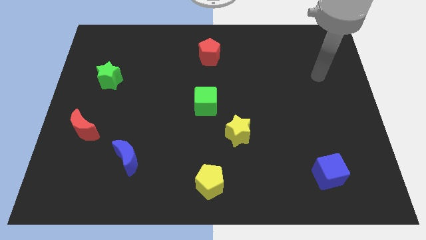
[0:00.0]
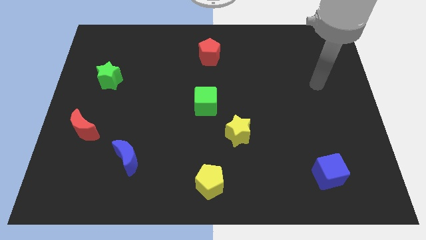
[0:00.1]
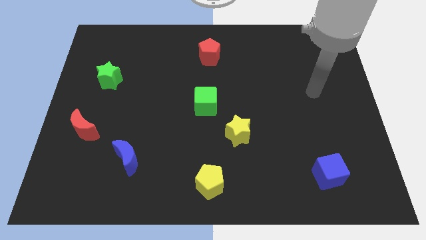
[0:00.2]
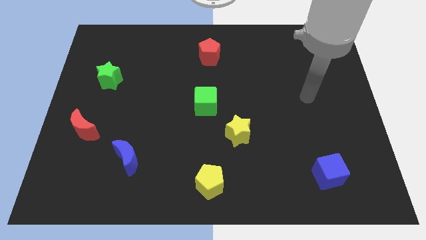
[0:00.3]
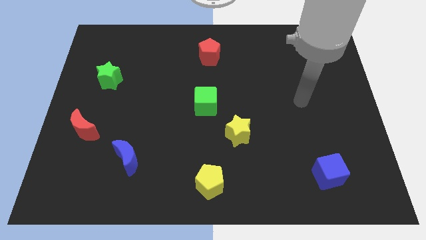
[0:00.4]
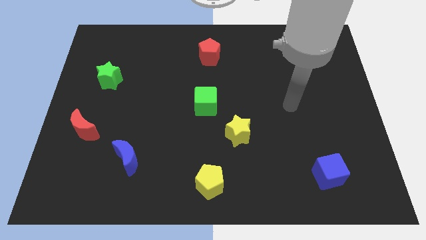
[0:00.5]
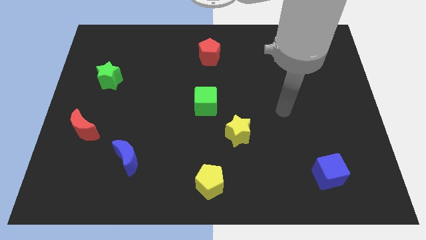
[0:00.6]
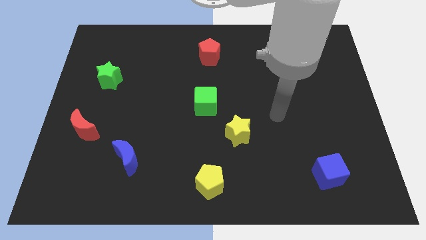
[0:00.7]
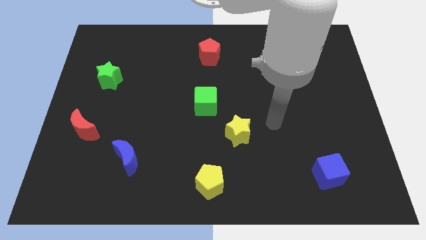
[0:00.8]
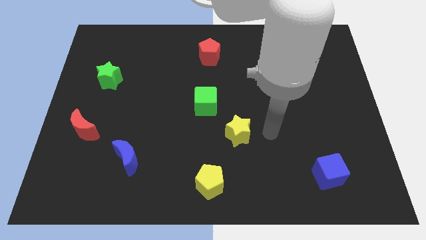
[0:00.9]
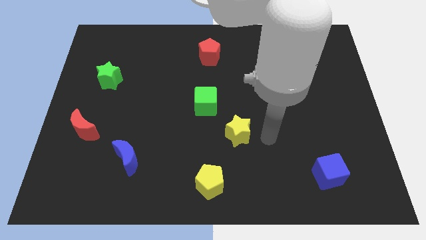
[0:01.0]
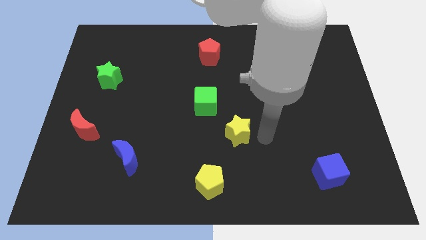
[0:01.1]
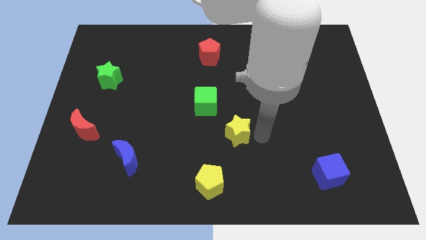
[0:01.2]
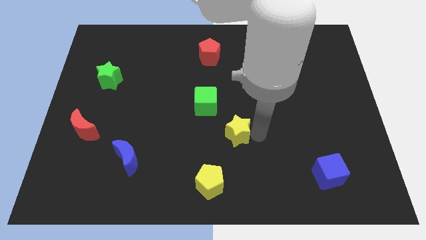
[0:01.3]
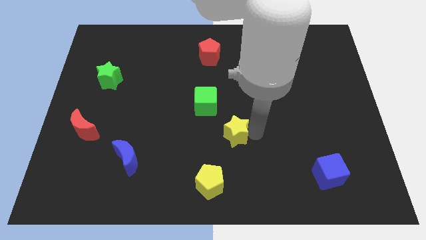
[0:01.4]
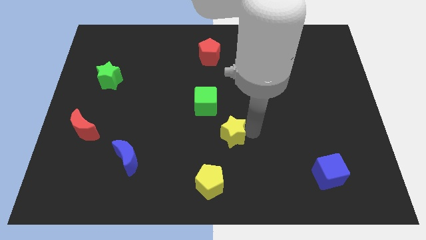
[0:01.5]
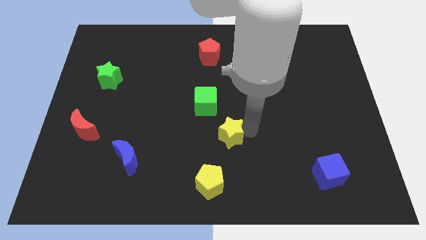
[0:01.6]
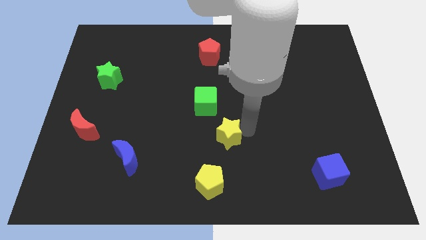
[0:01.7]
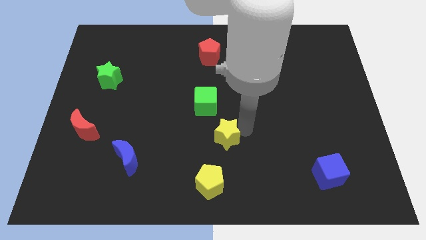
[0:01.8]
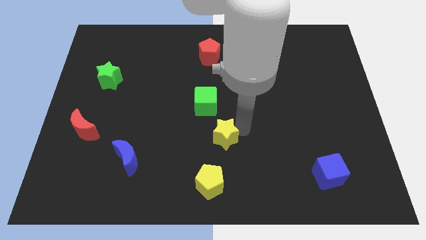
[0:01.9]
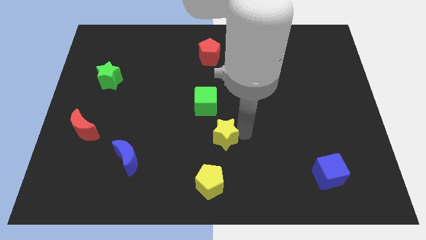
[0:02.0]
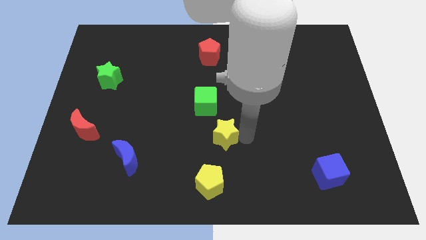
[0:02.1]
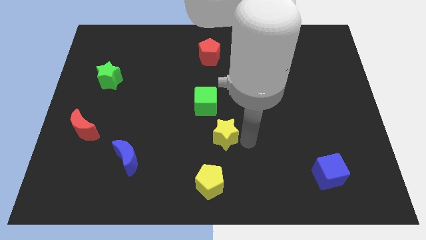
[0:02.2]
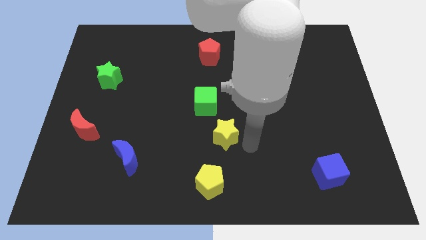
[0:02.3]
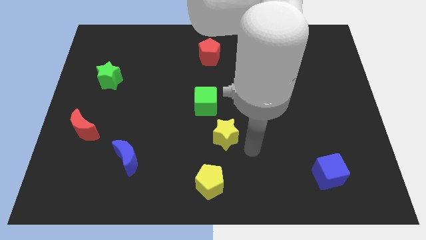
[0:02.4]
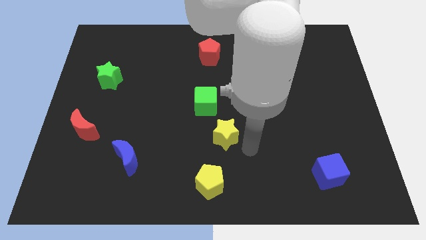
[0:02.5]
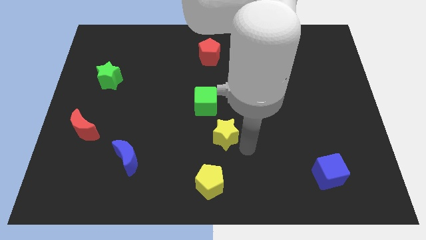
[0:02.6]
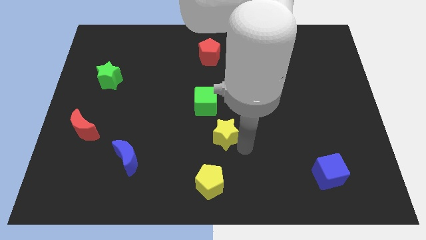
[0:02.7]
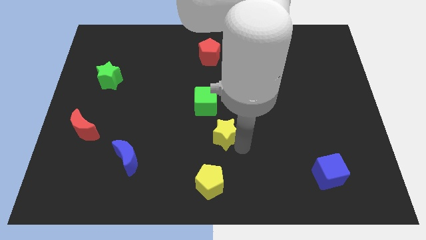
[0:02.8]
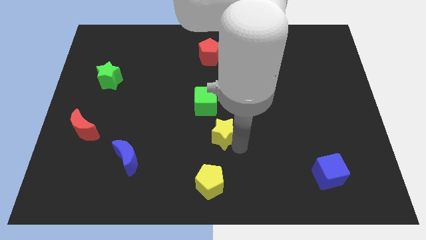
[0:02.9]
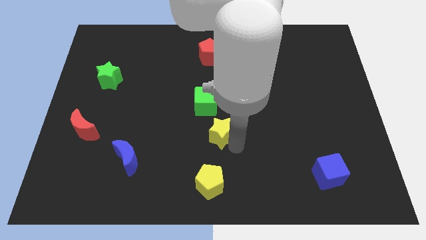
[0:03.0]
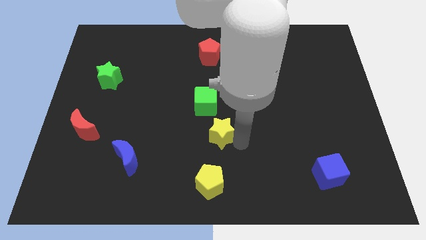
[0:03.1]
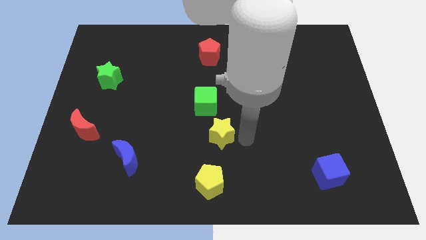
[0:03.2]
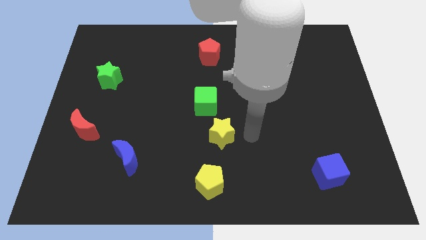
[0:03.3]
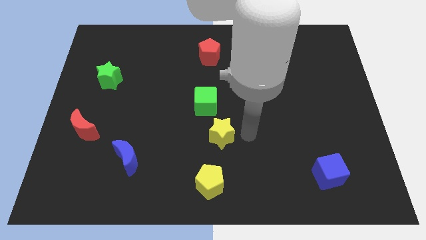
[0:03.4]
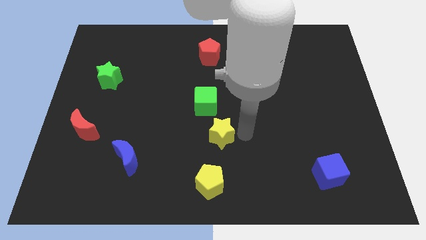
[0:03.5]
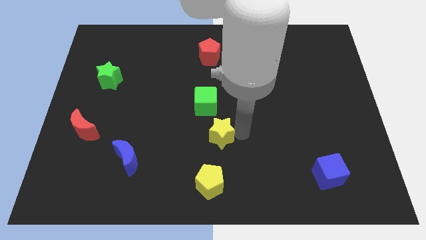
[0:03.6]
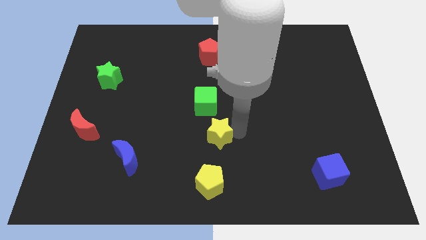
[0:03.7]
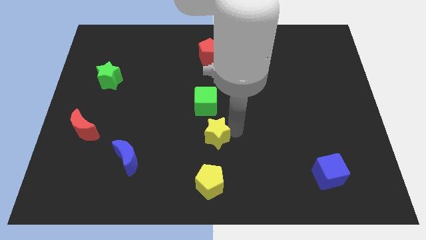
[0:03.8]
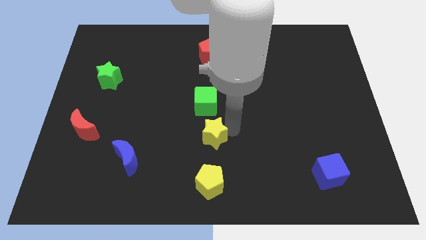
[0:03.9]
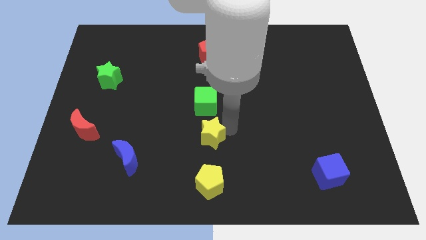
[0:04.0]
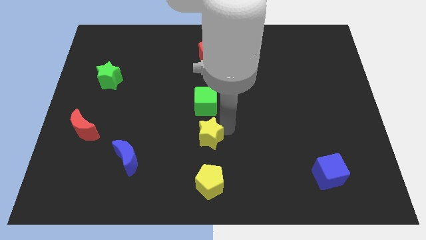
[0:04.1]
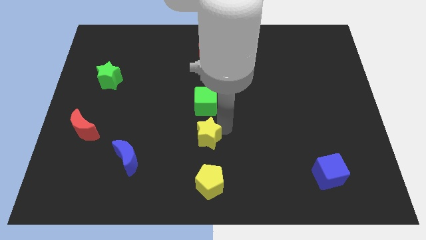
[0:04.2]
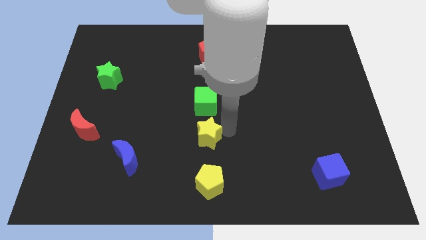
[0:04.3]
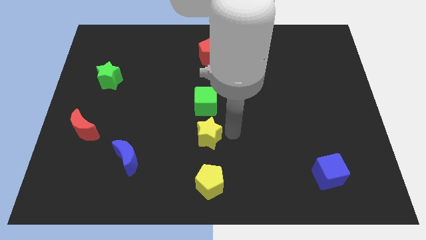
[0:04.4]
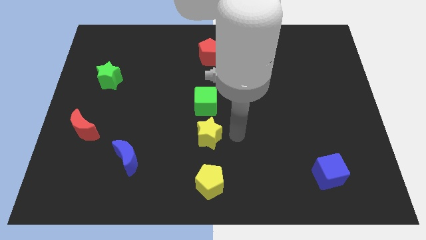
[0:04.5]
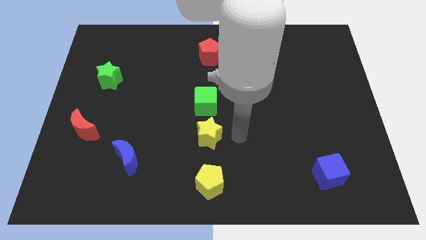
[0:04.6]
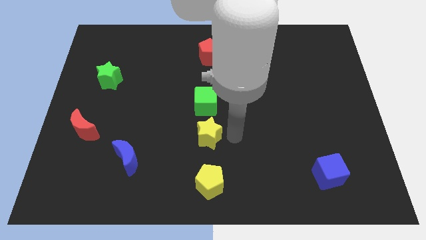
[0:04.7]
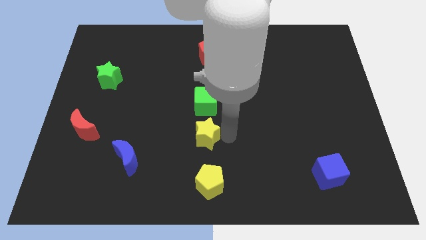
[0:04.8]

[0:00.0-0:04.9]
slightly slide the yellow star to the left

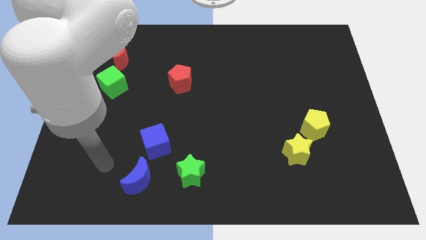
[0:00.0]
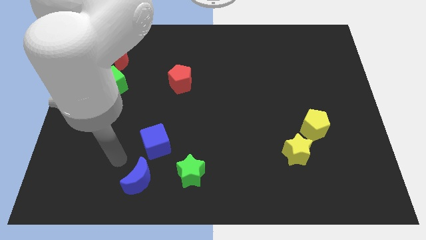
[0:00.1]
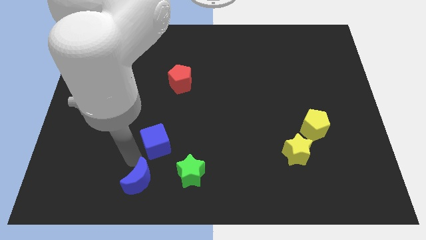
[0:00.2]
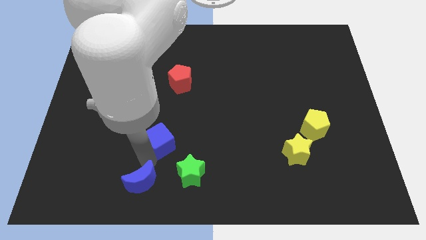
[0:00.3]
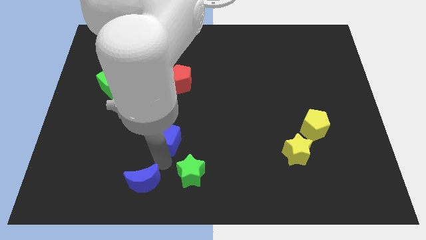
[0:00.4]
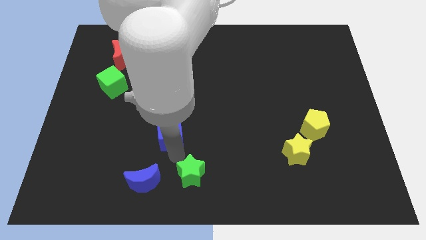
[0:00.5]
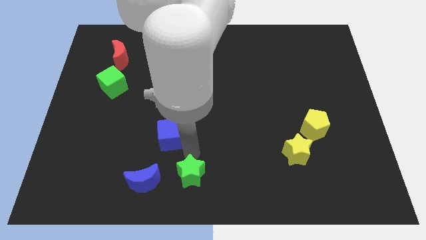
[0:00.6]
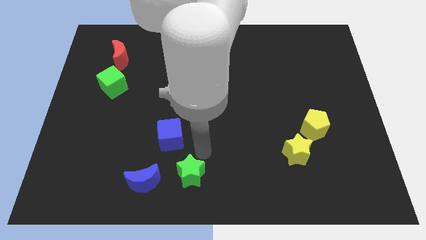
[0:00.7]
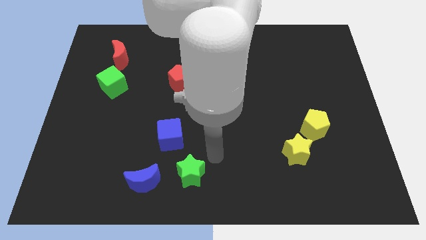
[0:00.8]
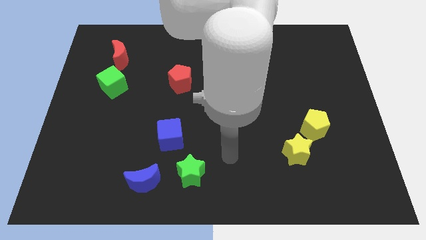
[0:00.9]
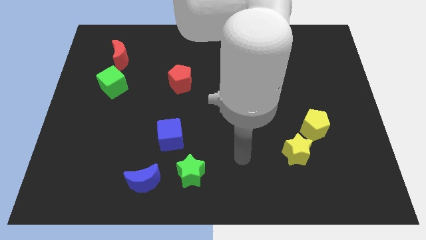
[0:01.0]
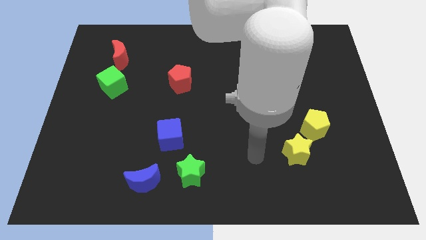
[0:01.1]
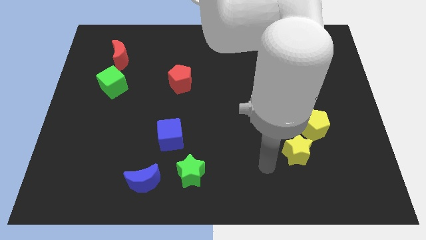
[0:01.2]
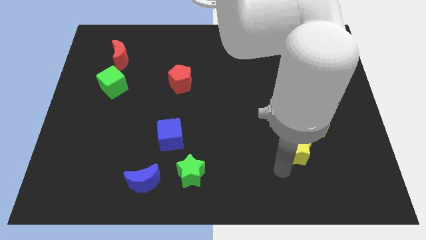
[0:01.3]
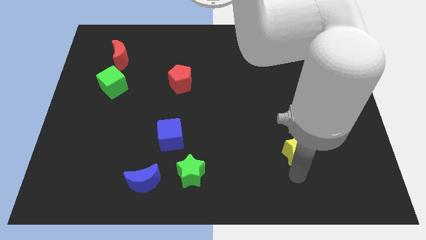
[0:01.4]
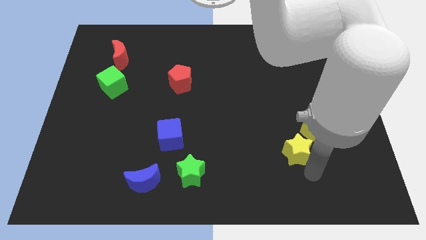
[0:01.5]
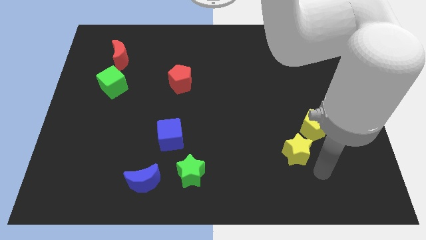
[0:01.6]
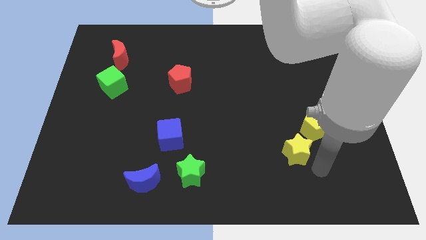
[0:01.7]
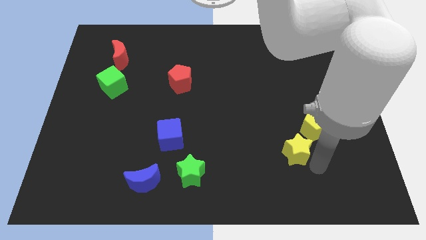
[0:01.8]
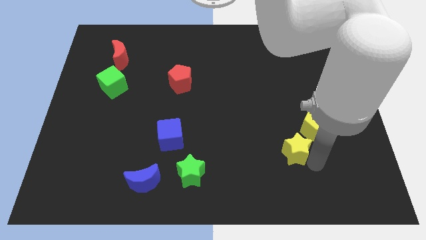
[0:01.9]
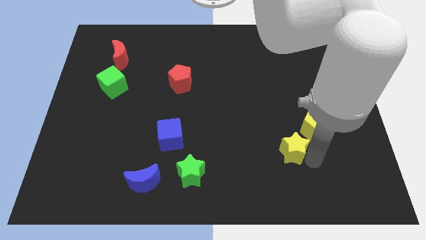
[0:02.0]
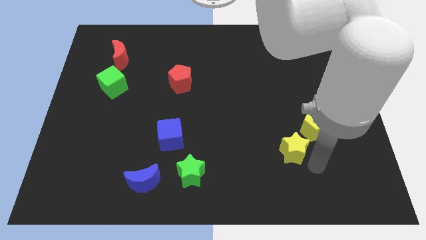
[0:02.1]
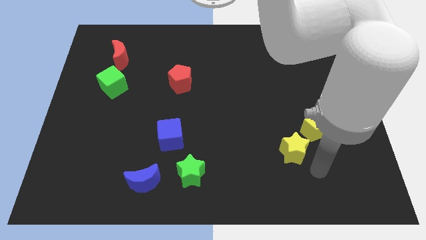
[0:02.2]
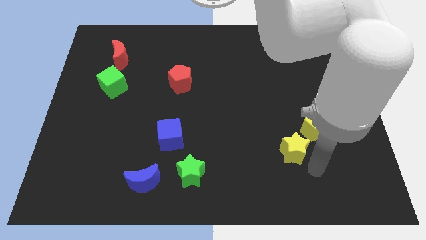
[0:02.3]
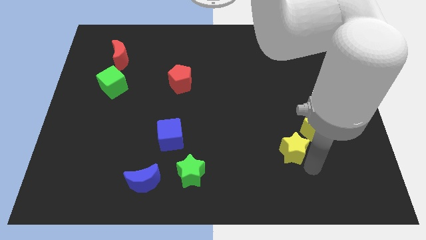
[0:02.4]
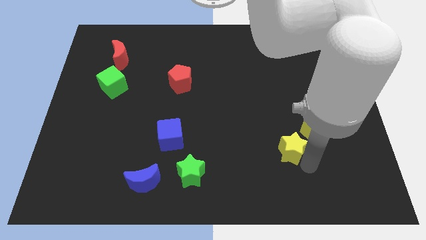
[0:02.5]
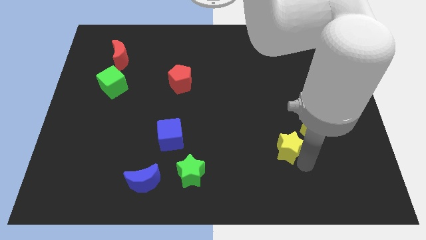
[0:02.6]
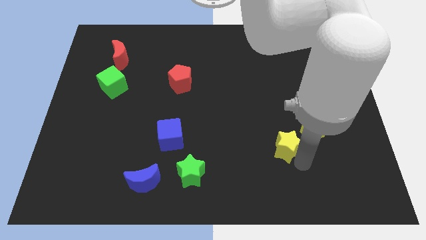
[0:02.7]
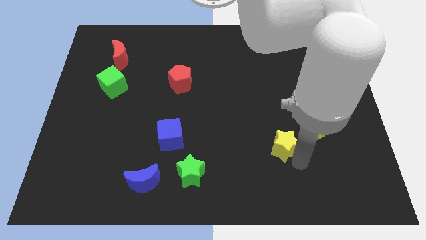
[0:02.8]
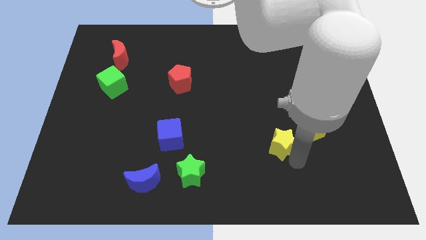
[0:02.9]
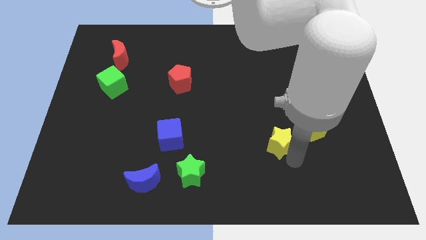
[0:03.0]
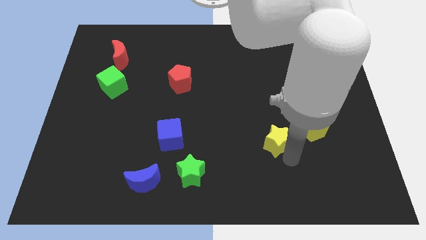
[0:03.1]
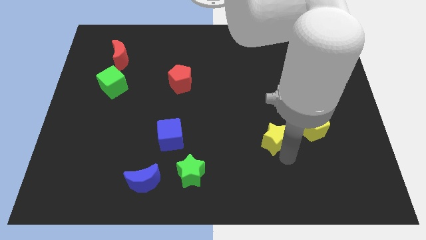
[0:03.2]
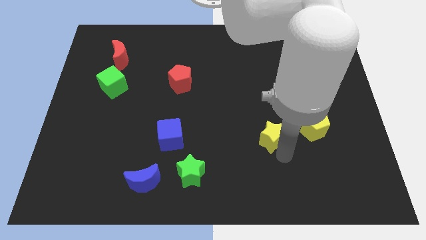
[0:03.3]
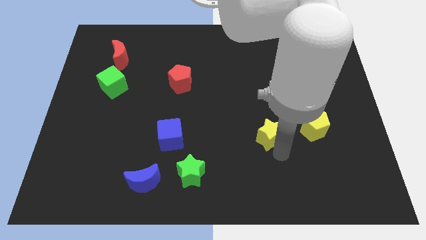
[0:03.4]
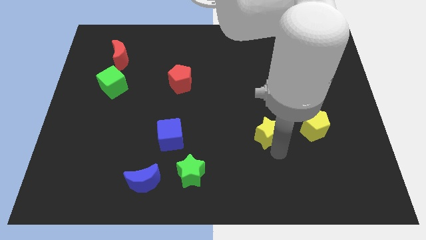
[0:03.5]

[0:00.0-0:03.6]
slightly push the yellow star up and to the left diagonally
